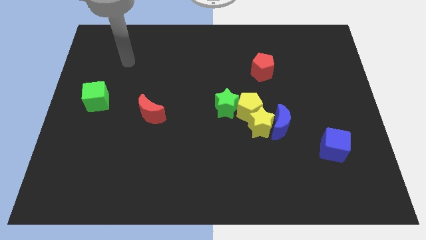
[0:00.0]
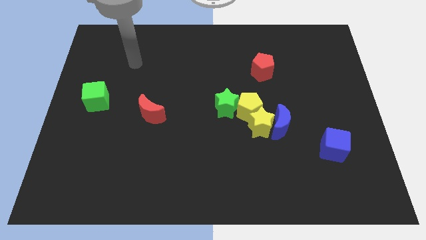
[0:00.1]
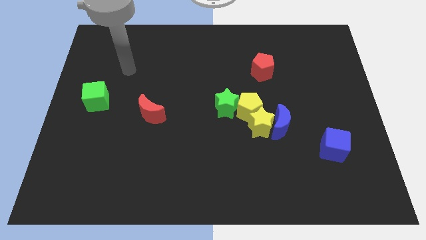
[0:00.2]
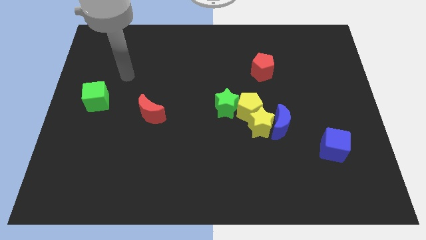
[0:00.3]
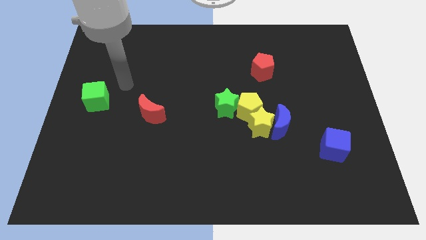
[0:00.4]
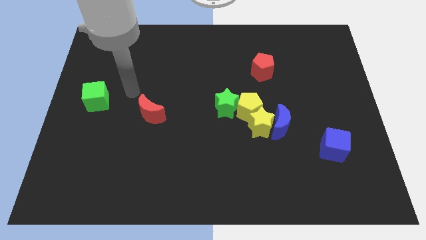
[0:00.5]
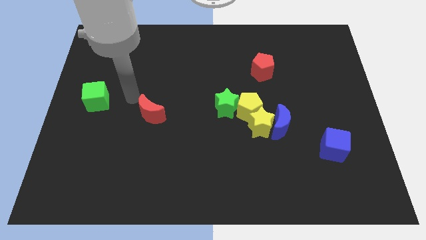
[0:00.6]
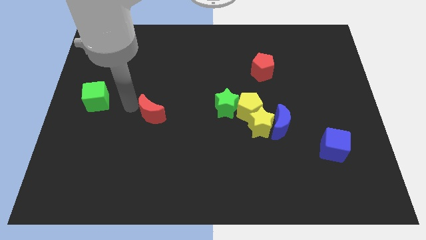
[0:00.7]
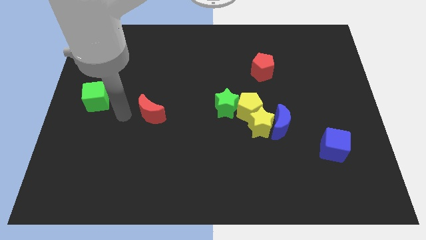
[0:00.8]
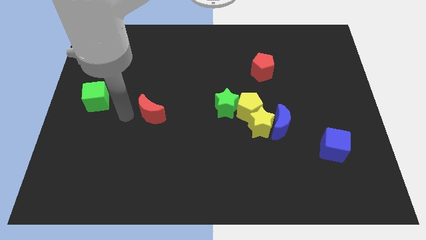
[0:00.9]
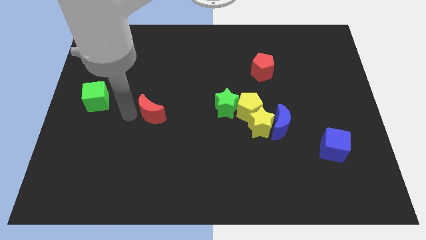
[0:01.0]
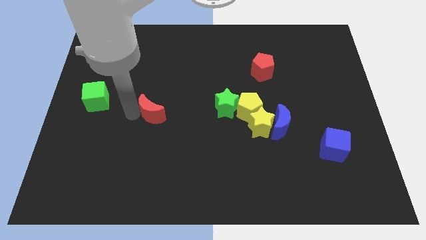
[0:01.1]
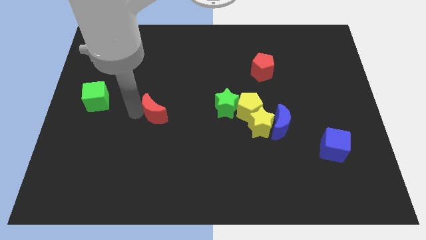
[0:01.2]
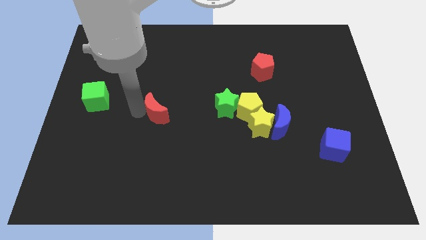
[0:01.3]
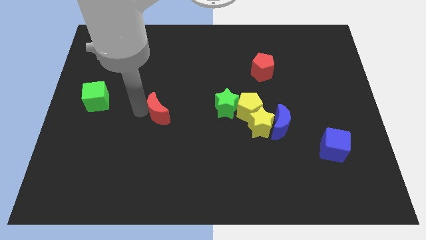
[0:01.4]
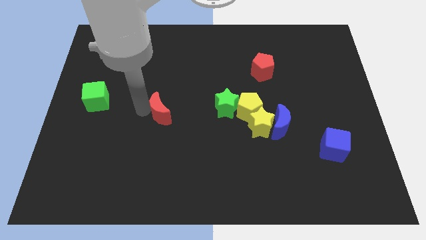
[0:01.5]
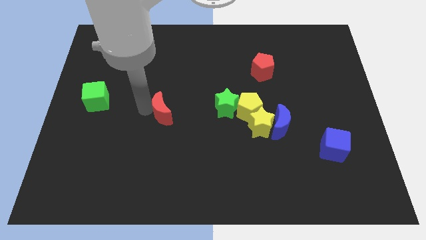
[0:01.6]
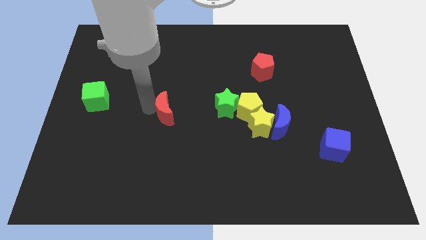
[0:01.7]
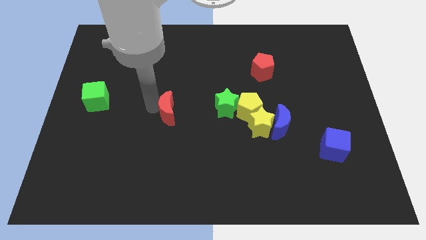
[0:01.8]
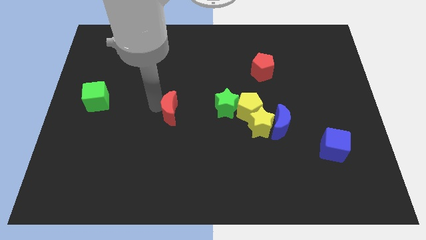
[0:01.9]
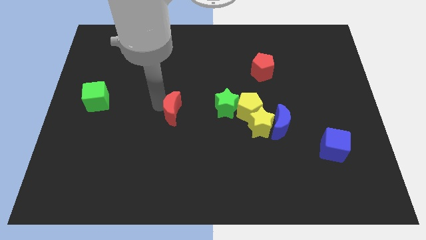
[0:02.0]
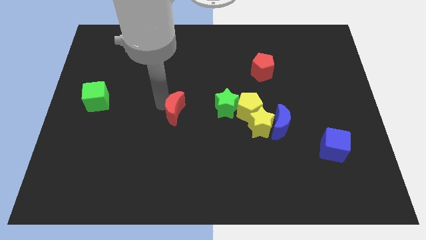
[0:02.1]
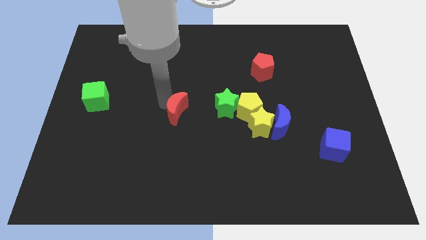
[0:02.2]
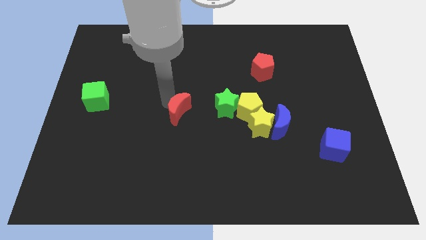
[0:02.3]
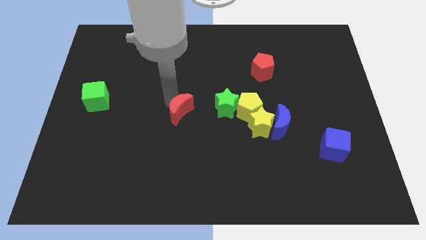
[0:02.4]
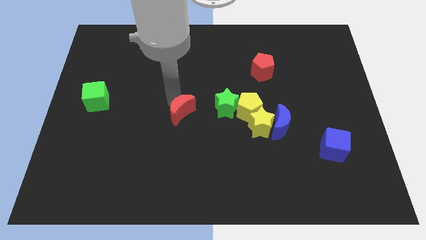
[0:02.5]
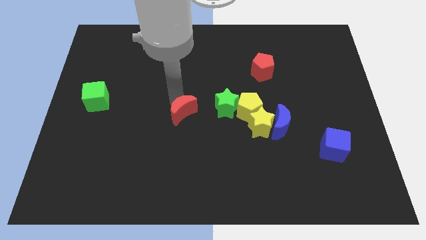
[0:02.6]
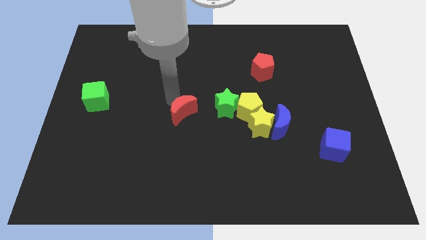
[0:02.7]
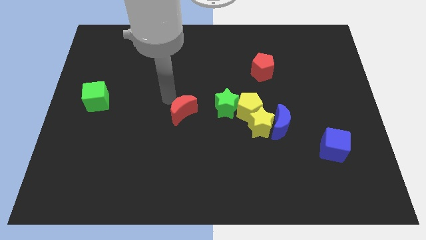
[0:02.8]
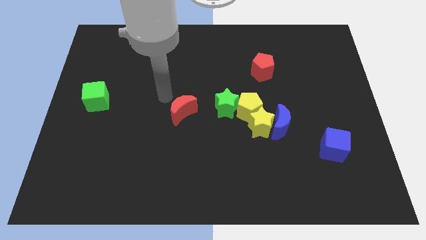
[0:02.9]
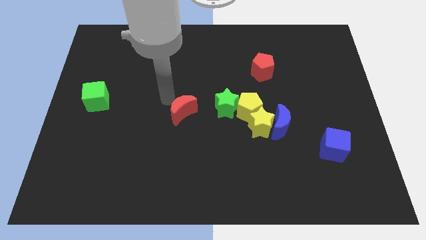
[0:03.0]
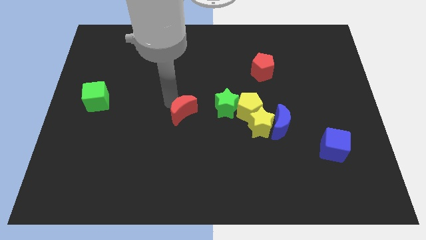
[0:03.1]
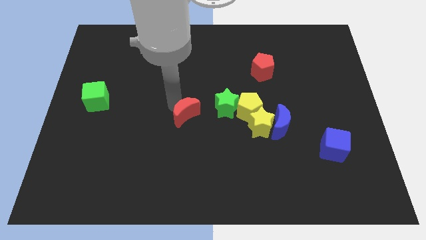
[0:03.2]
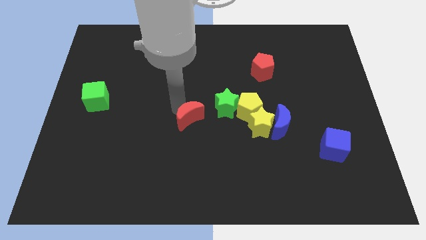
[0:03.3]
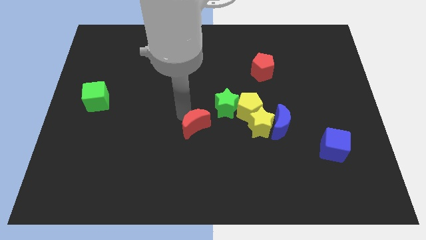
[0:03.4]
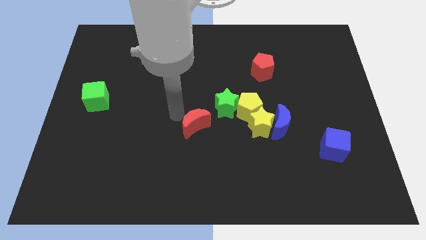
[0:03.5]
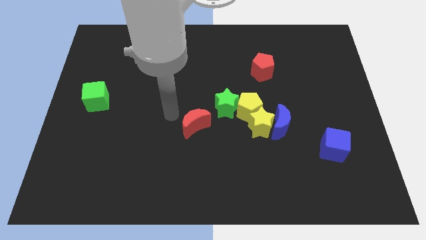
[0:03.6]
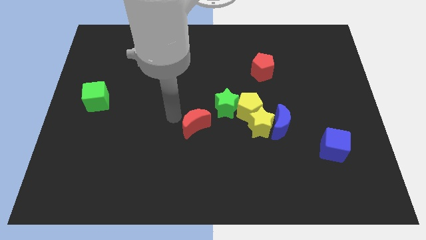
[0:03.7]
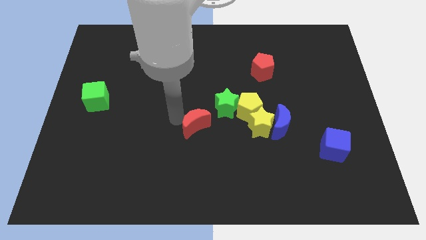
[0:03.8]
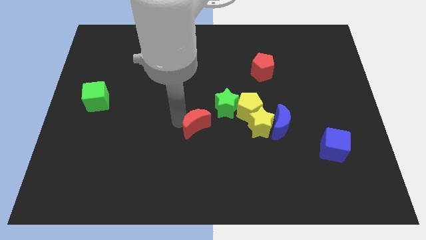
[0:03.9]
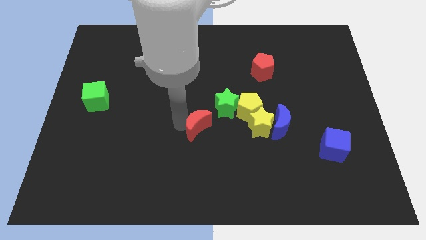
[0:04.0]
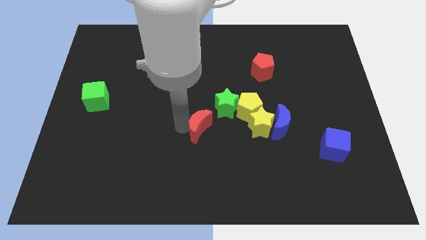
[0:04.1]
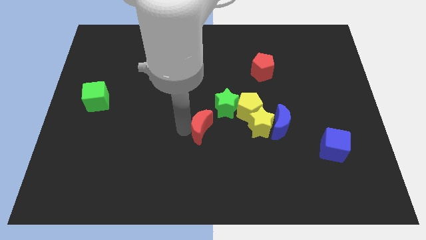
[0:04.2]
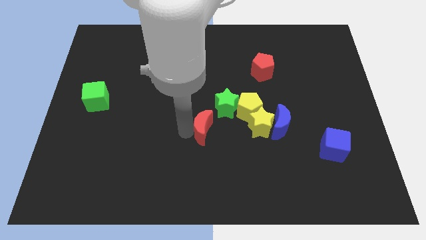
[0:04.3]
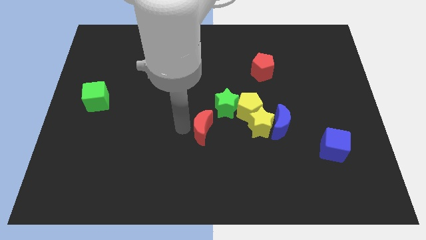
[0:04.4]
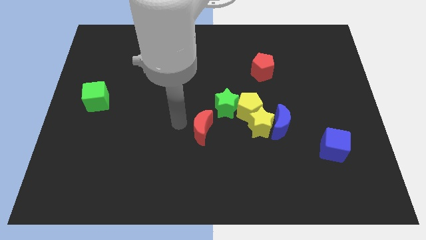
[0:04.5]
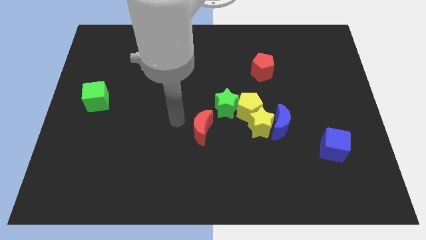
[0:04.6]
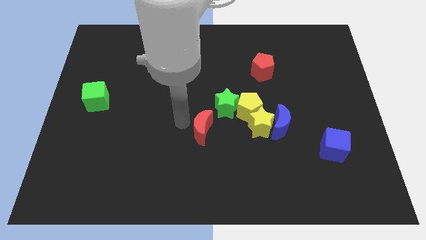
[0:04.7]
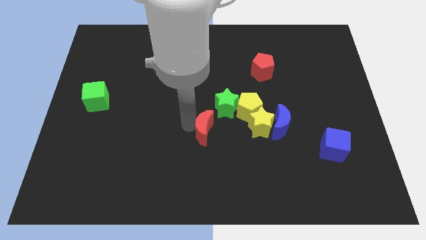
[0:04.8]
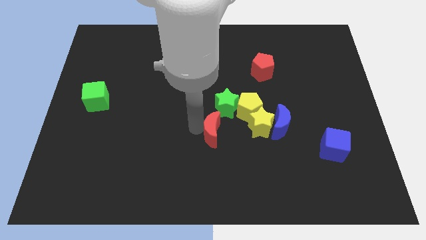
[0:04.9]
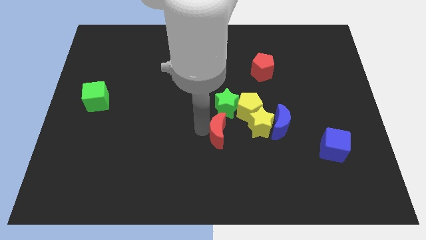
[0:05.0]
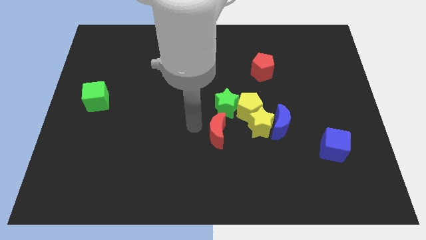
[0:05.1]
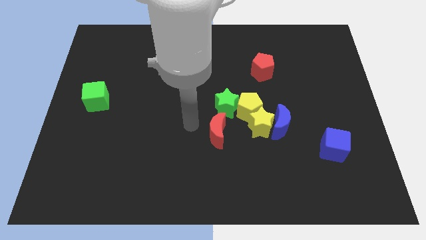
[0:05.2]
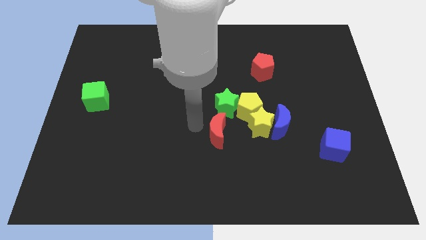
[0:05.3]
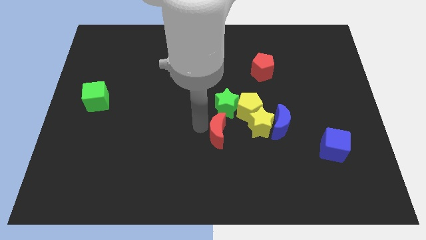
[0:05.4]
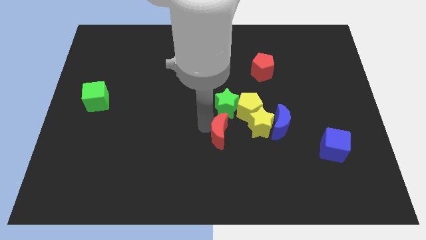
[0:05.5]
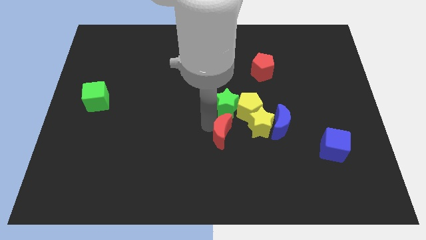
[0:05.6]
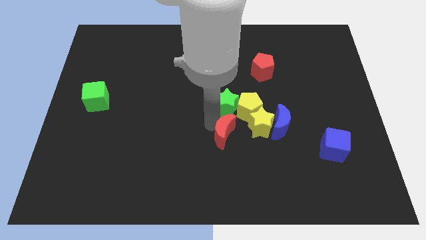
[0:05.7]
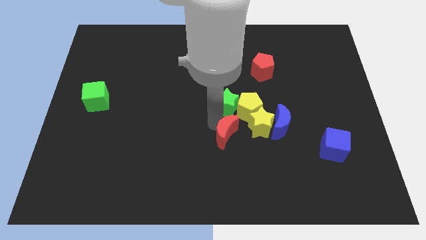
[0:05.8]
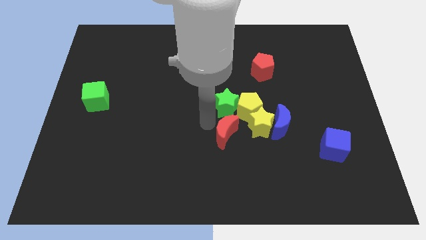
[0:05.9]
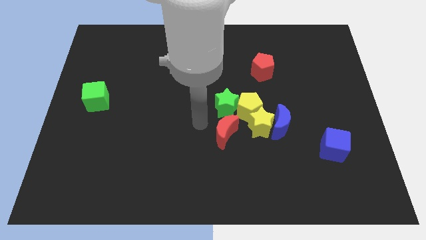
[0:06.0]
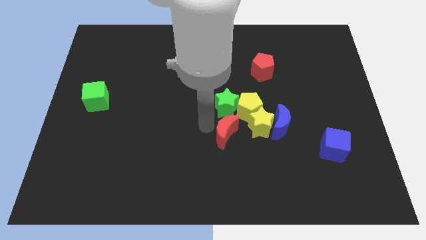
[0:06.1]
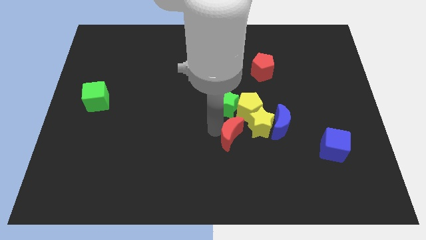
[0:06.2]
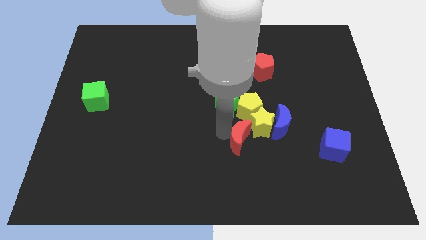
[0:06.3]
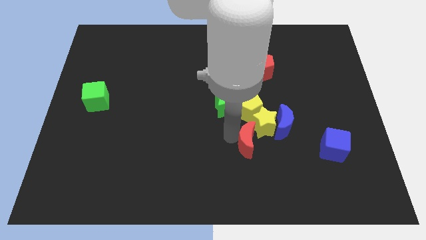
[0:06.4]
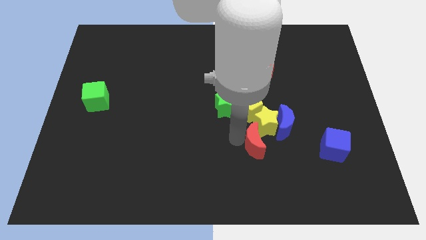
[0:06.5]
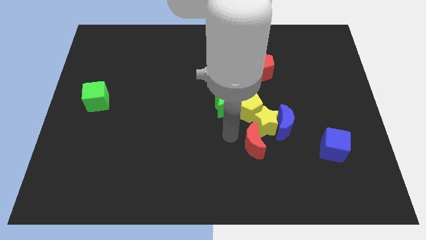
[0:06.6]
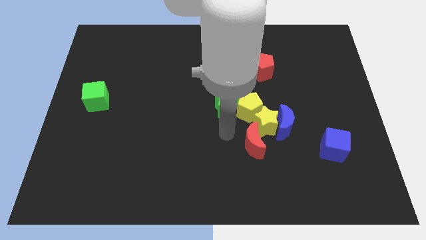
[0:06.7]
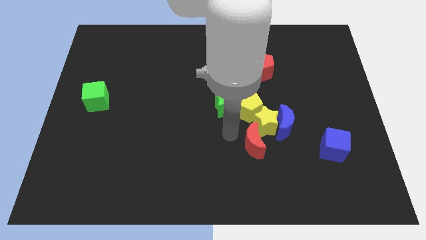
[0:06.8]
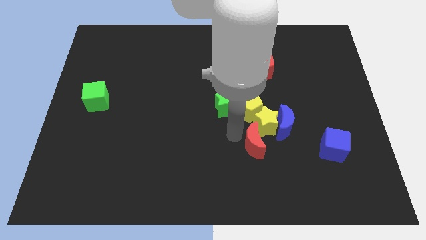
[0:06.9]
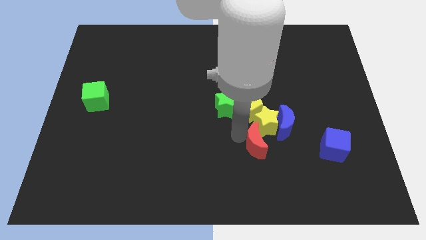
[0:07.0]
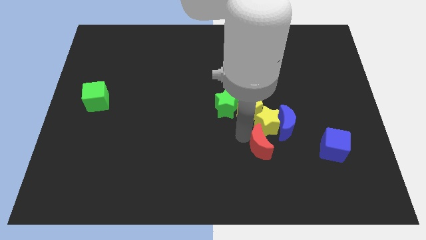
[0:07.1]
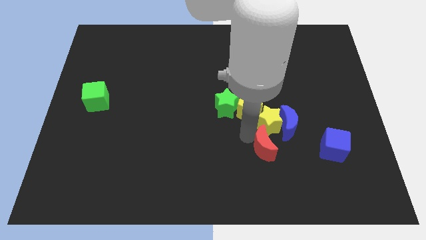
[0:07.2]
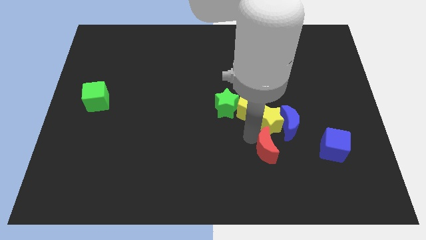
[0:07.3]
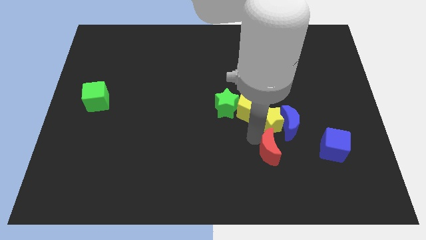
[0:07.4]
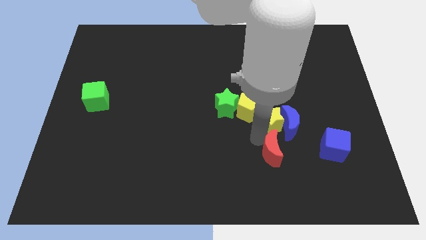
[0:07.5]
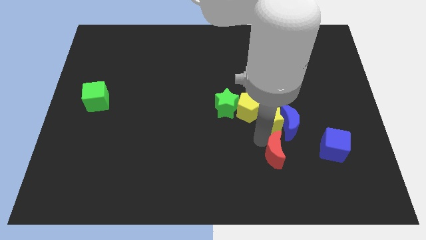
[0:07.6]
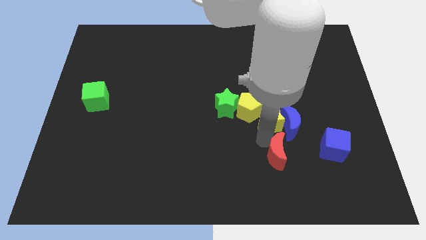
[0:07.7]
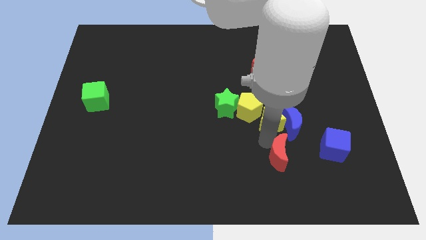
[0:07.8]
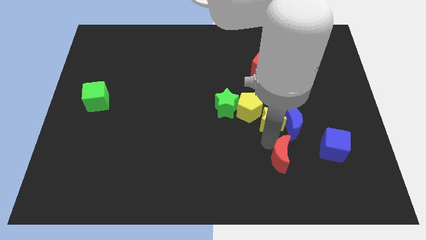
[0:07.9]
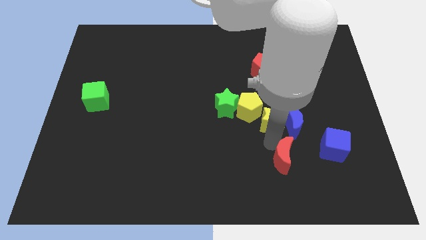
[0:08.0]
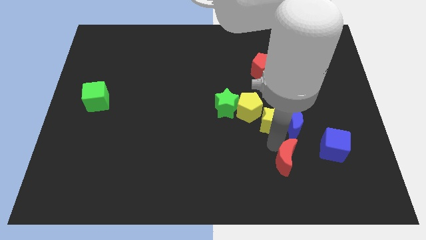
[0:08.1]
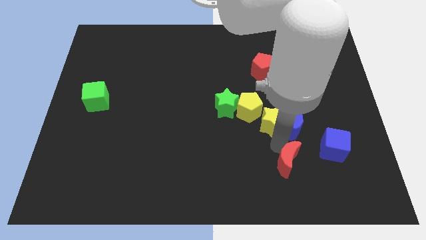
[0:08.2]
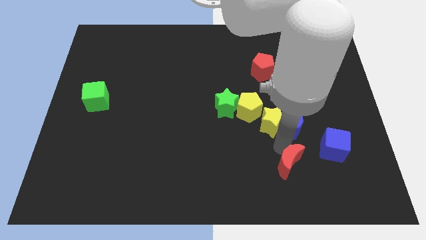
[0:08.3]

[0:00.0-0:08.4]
move the red moon to the bottom left of the blue cube
